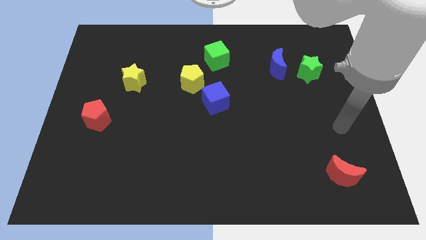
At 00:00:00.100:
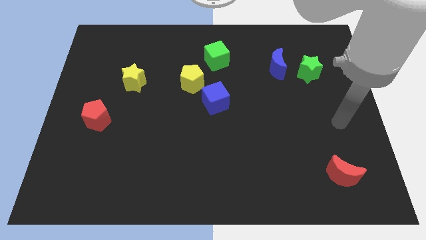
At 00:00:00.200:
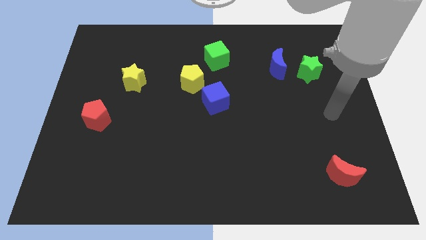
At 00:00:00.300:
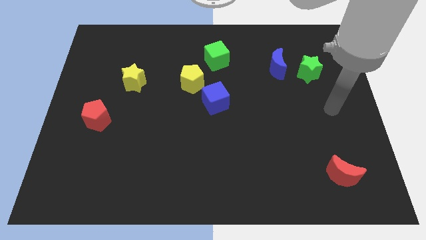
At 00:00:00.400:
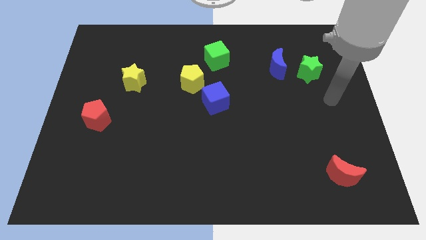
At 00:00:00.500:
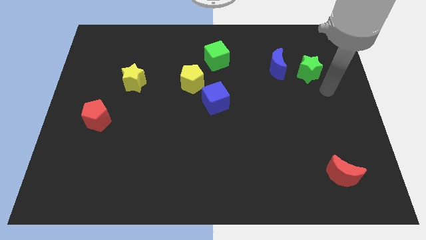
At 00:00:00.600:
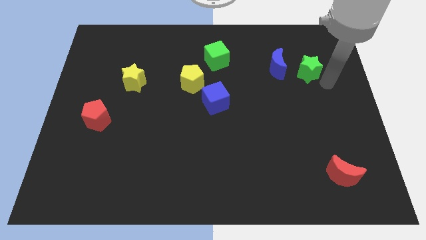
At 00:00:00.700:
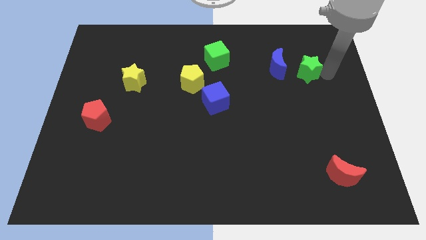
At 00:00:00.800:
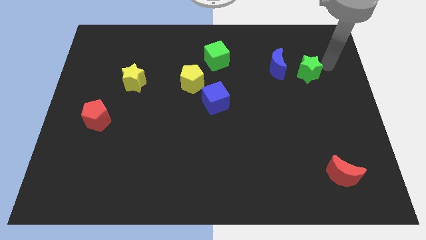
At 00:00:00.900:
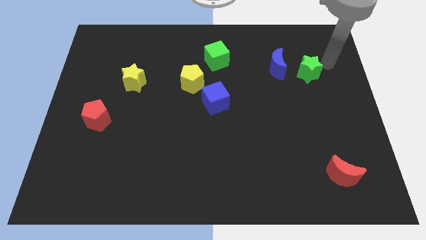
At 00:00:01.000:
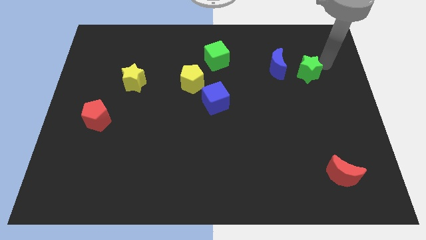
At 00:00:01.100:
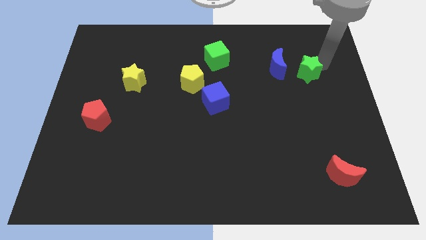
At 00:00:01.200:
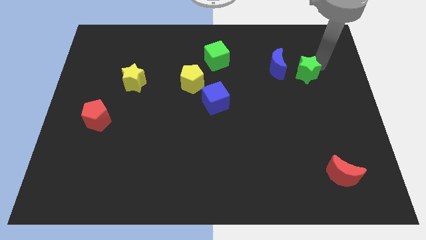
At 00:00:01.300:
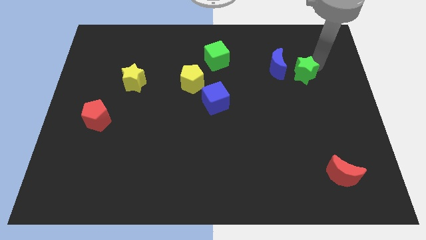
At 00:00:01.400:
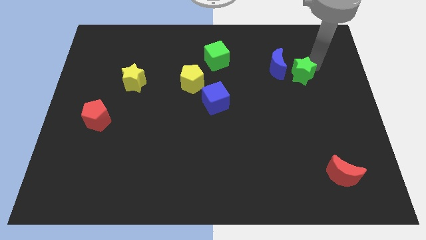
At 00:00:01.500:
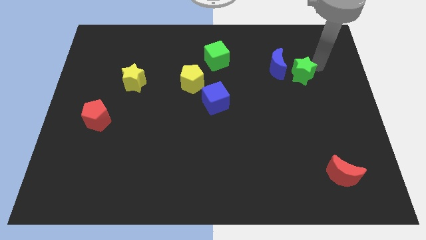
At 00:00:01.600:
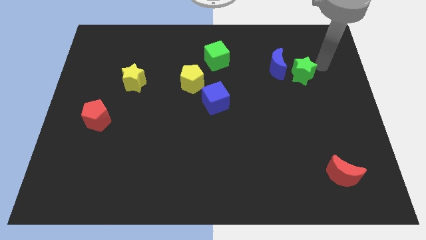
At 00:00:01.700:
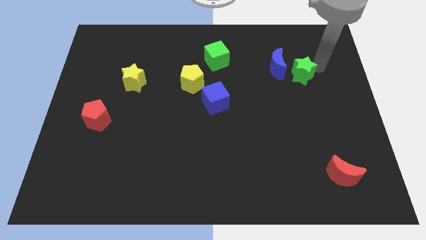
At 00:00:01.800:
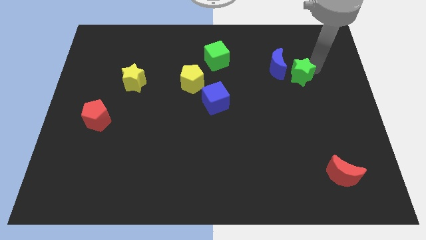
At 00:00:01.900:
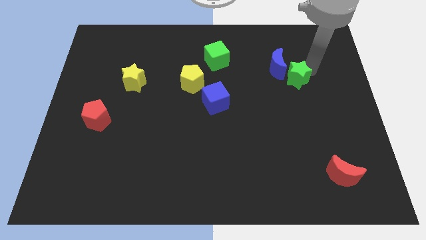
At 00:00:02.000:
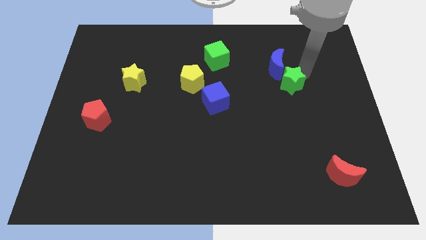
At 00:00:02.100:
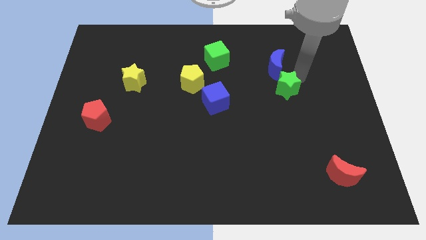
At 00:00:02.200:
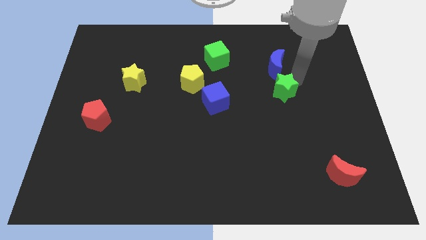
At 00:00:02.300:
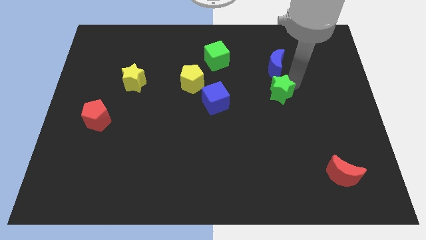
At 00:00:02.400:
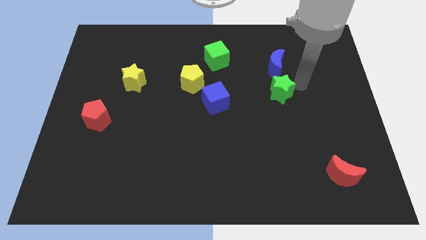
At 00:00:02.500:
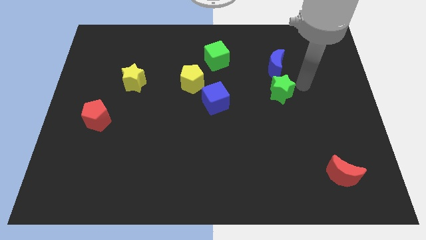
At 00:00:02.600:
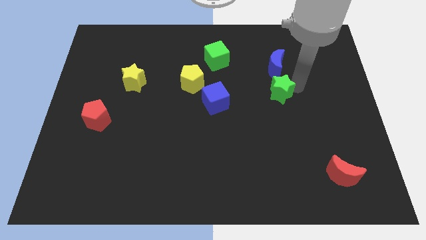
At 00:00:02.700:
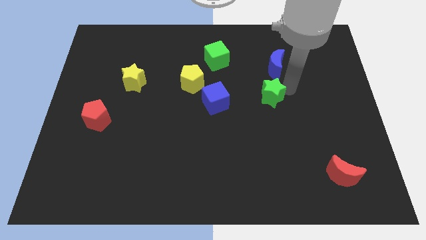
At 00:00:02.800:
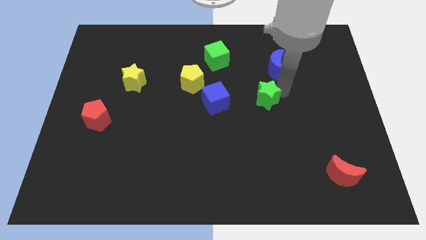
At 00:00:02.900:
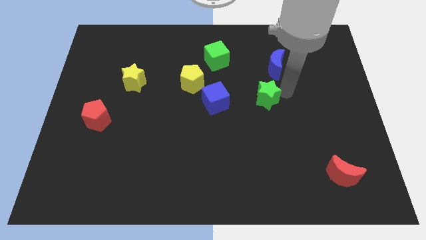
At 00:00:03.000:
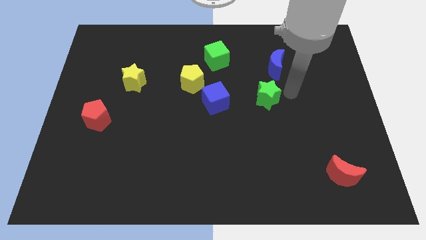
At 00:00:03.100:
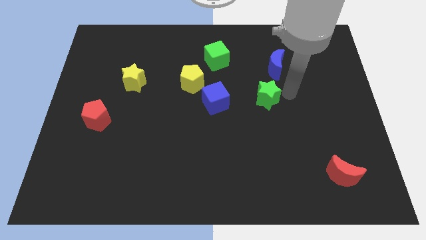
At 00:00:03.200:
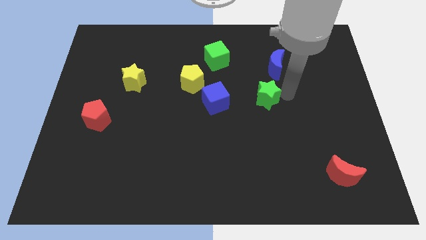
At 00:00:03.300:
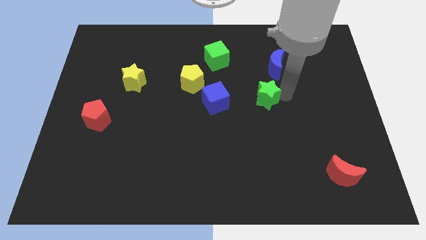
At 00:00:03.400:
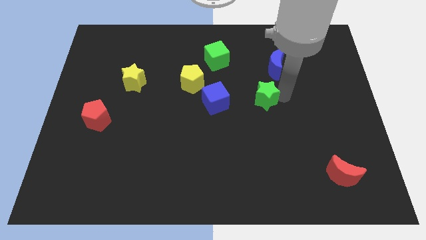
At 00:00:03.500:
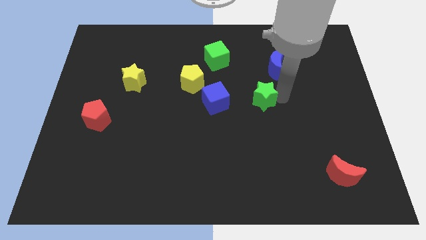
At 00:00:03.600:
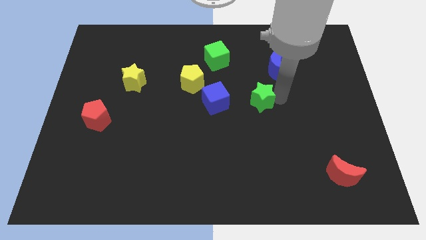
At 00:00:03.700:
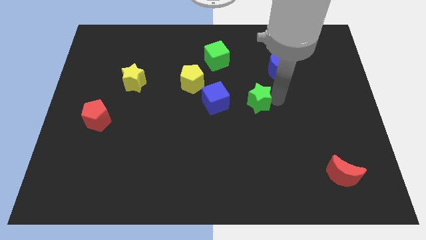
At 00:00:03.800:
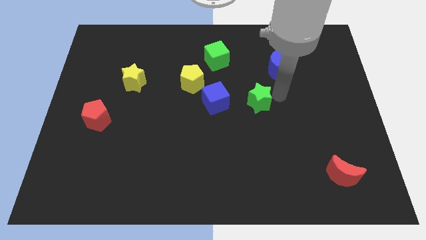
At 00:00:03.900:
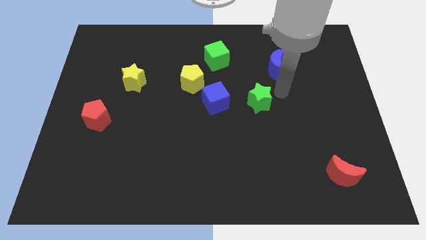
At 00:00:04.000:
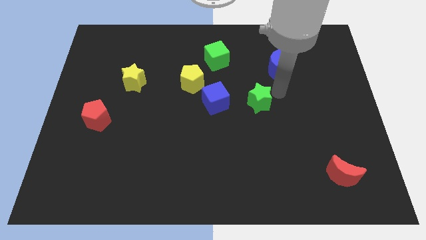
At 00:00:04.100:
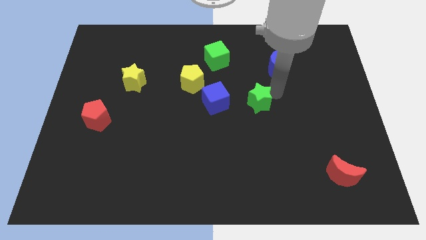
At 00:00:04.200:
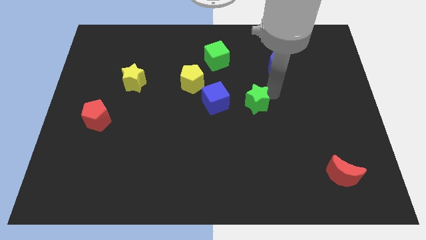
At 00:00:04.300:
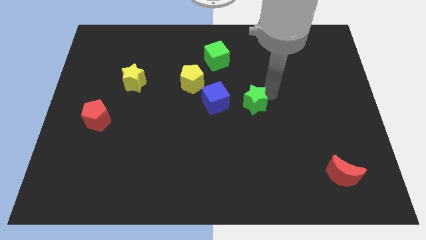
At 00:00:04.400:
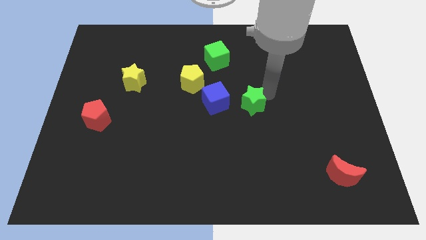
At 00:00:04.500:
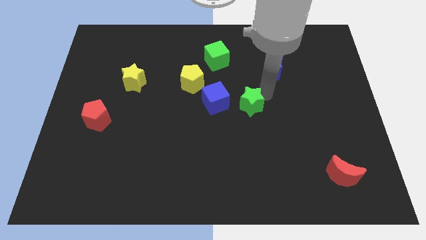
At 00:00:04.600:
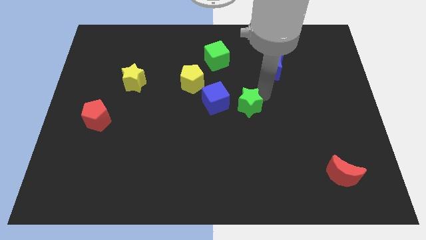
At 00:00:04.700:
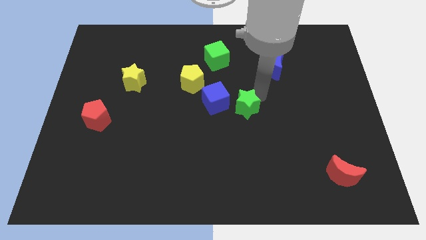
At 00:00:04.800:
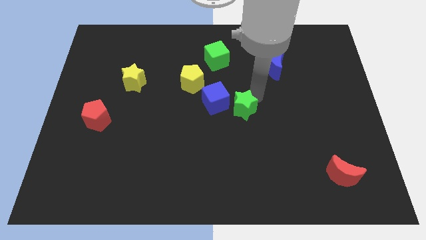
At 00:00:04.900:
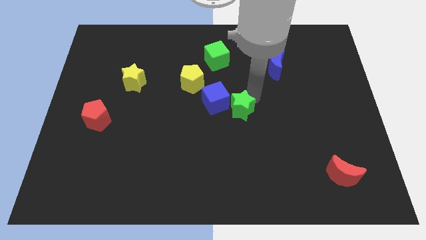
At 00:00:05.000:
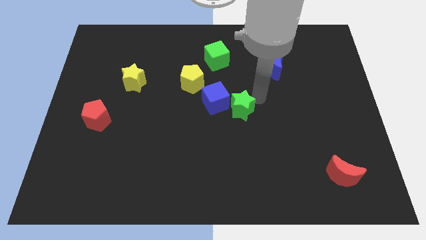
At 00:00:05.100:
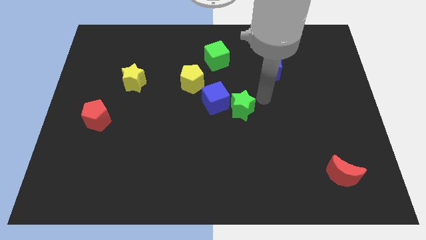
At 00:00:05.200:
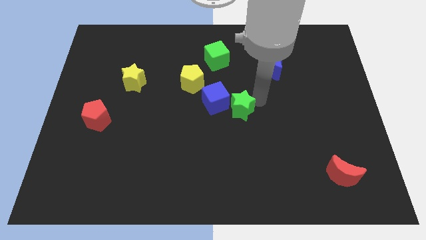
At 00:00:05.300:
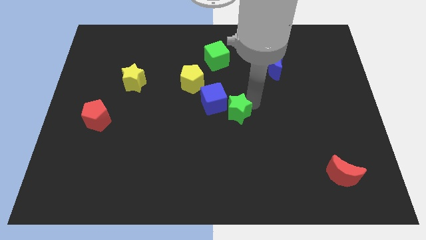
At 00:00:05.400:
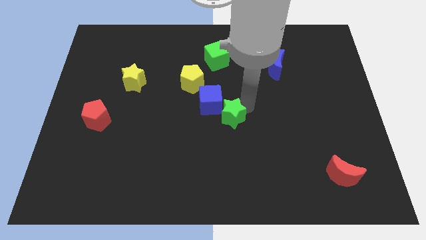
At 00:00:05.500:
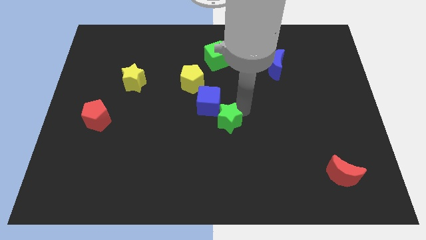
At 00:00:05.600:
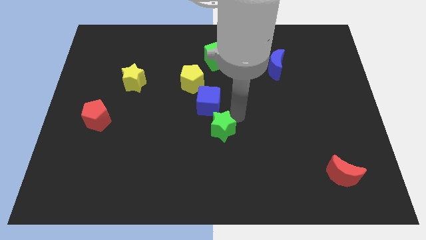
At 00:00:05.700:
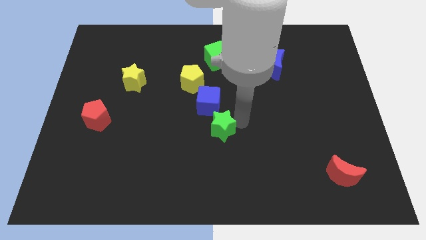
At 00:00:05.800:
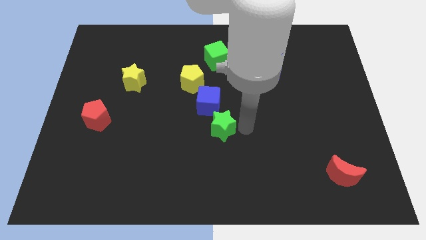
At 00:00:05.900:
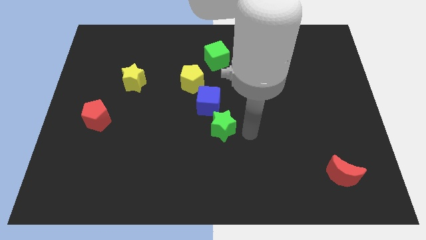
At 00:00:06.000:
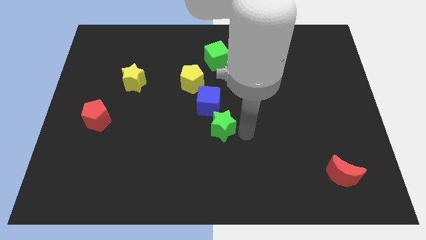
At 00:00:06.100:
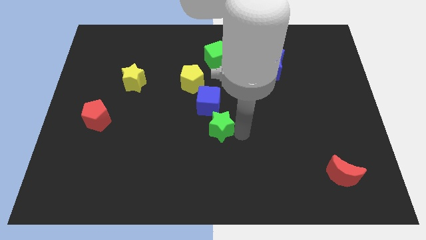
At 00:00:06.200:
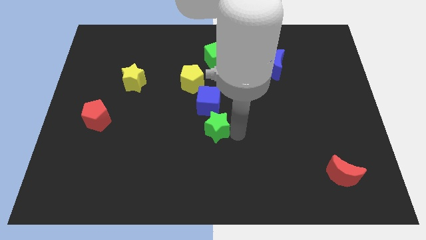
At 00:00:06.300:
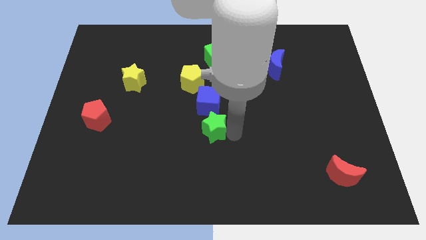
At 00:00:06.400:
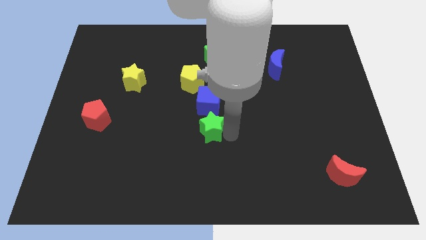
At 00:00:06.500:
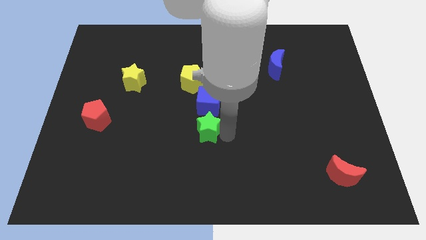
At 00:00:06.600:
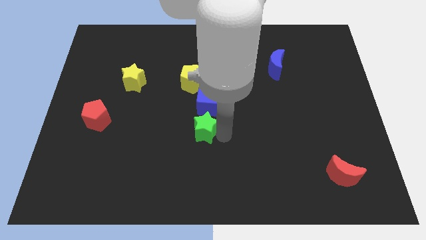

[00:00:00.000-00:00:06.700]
slide the green star to the bottom left of the blue cube

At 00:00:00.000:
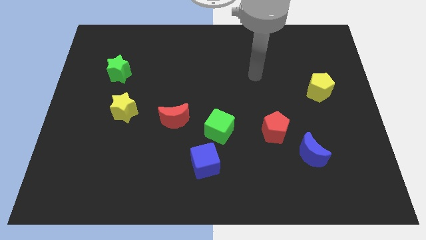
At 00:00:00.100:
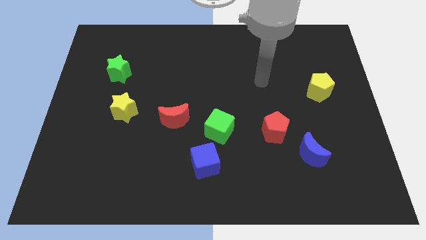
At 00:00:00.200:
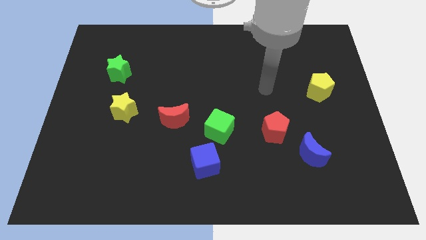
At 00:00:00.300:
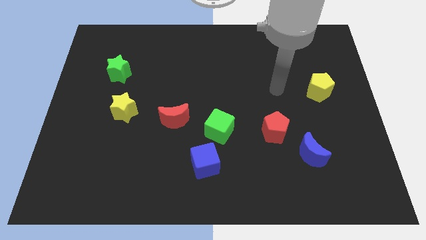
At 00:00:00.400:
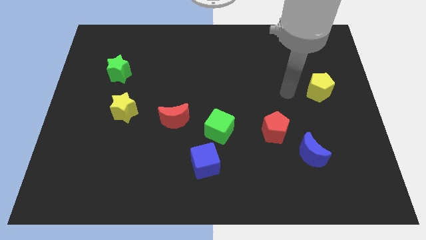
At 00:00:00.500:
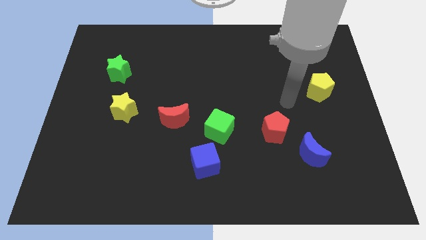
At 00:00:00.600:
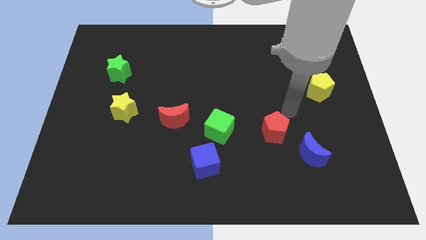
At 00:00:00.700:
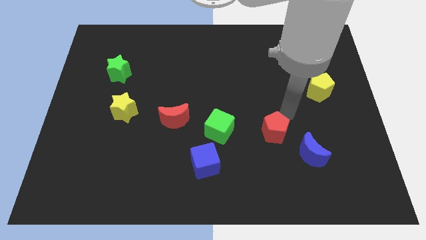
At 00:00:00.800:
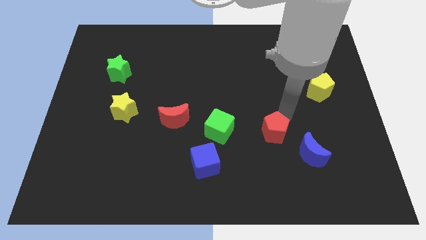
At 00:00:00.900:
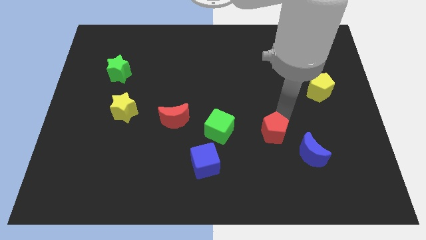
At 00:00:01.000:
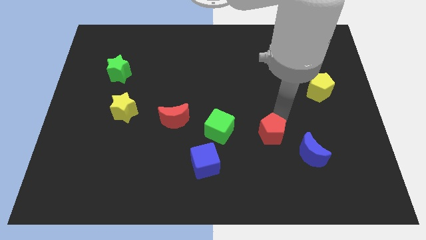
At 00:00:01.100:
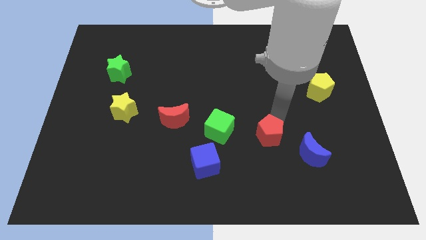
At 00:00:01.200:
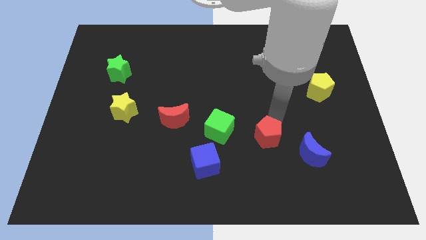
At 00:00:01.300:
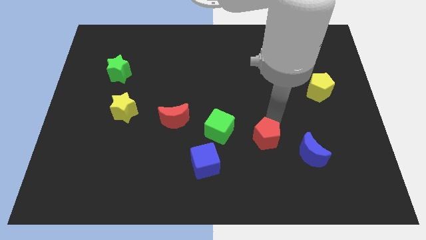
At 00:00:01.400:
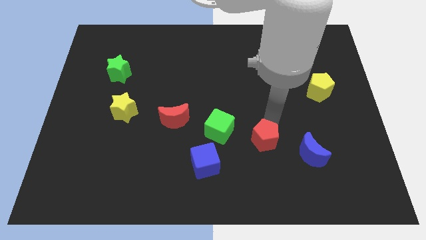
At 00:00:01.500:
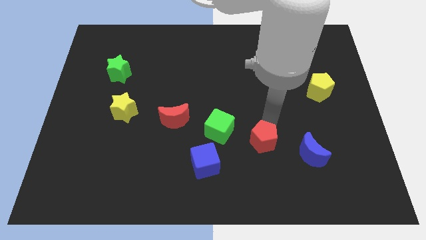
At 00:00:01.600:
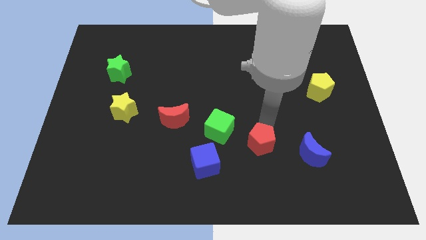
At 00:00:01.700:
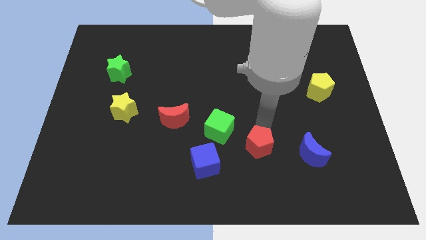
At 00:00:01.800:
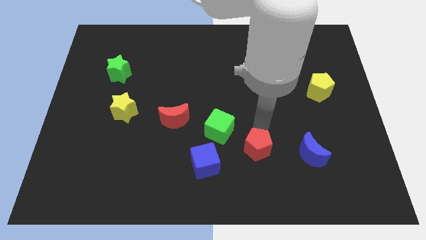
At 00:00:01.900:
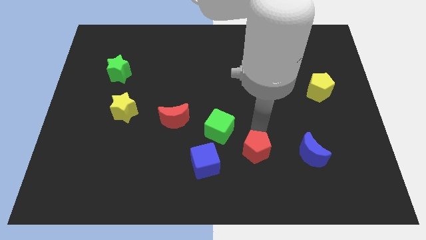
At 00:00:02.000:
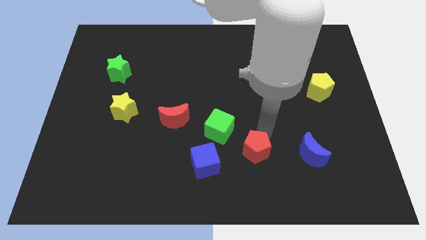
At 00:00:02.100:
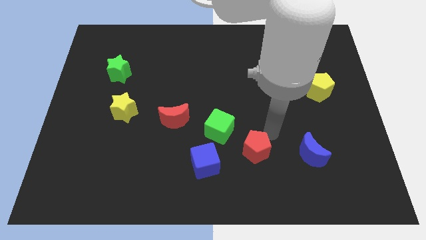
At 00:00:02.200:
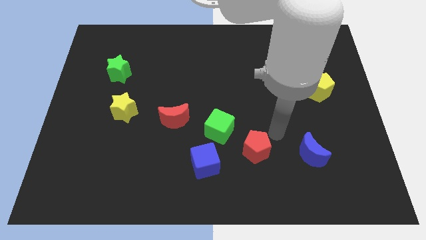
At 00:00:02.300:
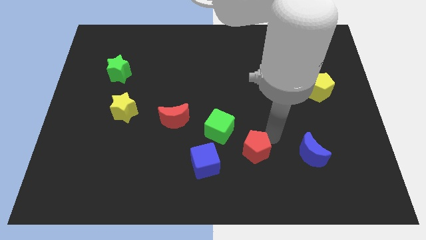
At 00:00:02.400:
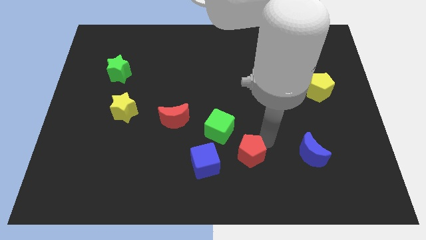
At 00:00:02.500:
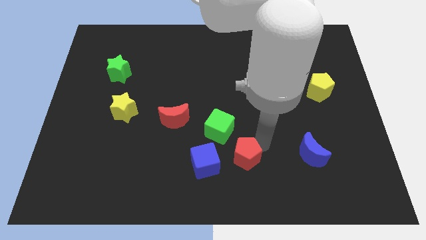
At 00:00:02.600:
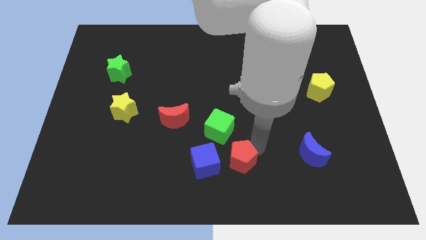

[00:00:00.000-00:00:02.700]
slide the red pentagon below the green cube
